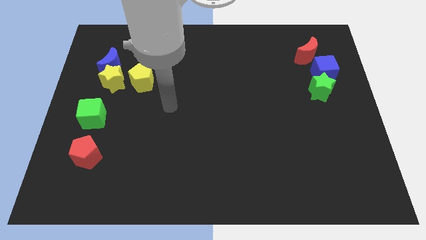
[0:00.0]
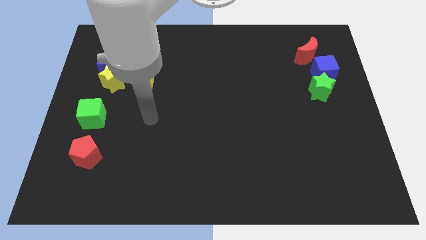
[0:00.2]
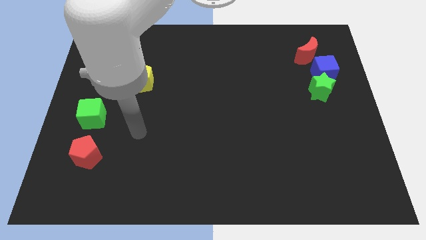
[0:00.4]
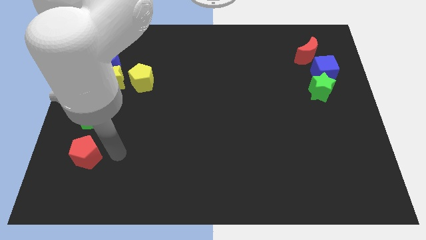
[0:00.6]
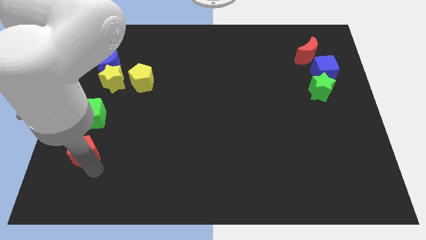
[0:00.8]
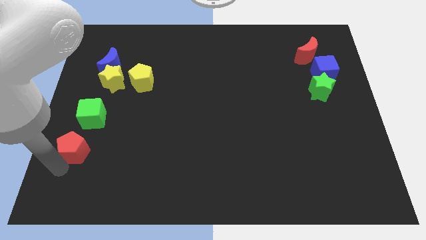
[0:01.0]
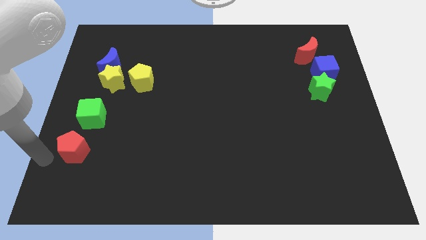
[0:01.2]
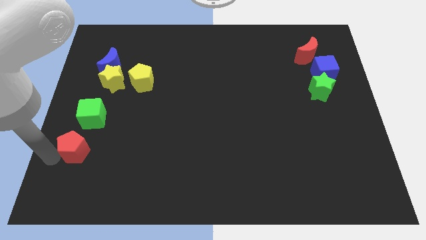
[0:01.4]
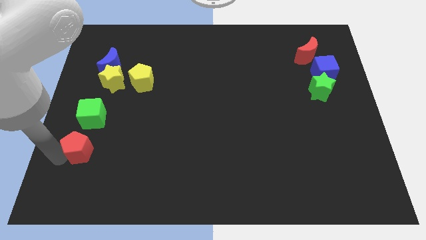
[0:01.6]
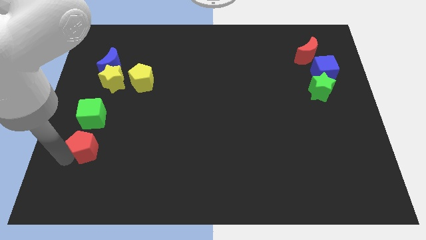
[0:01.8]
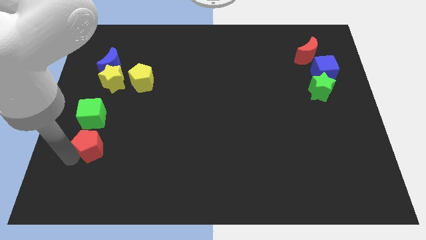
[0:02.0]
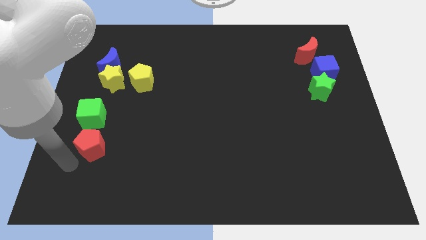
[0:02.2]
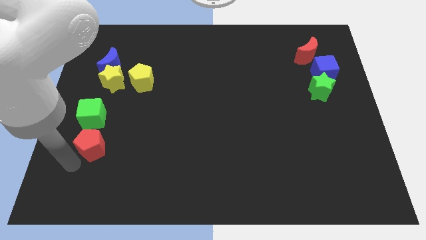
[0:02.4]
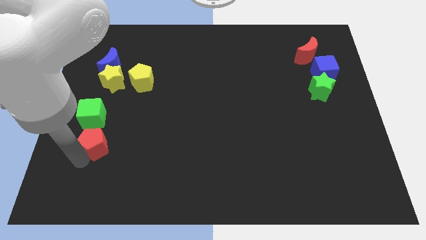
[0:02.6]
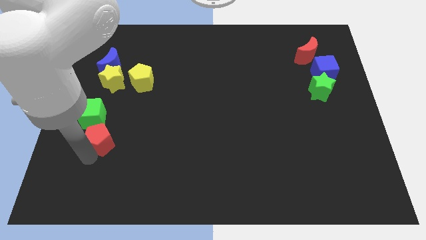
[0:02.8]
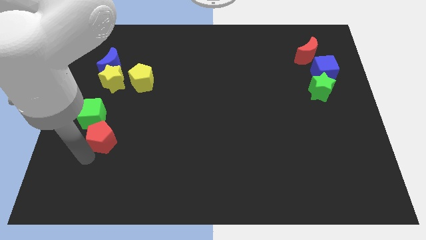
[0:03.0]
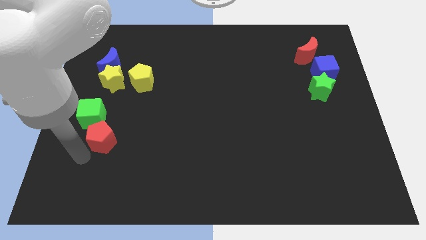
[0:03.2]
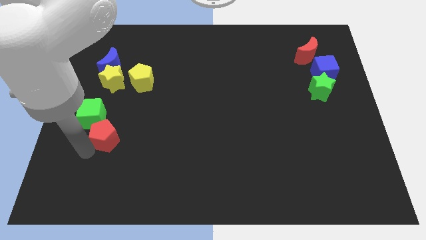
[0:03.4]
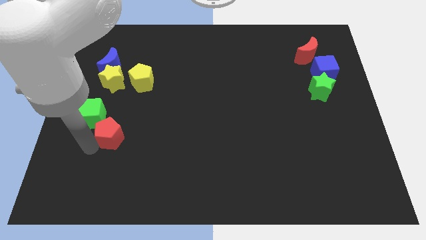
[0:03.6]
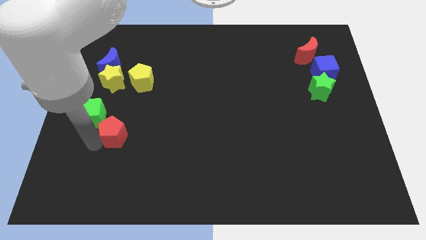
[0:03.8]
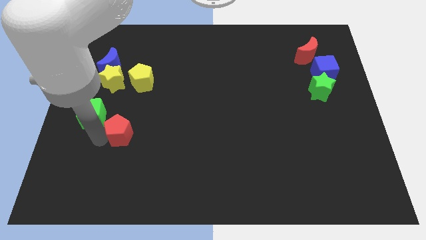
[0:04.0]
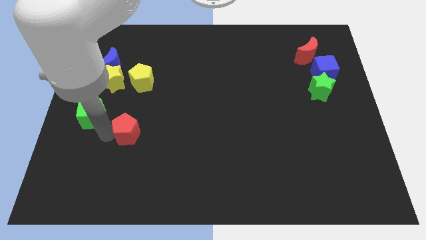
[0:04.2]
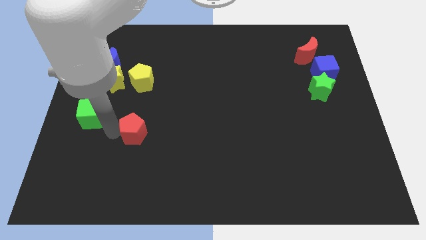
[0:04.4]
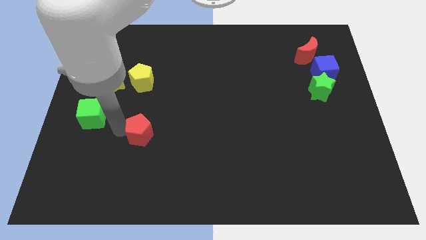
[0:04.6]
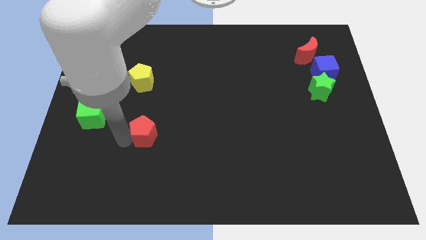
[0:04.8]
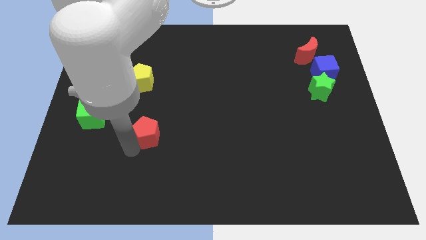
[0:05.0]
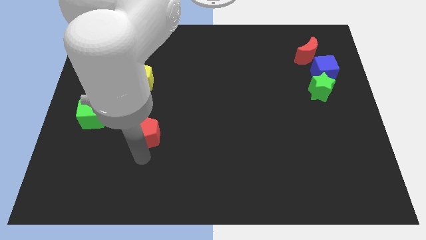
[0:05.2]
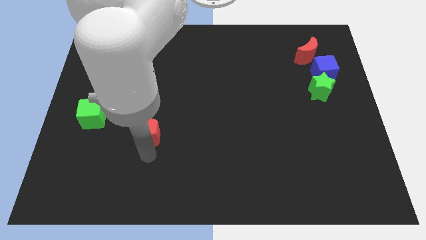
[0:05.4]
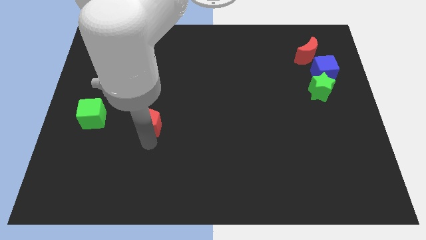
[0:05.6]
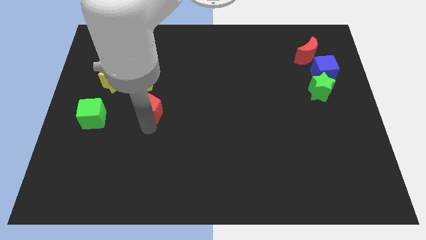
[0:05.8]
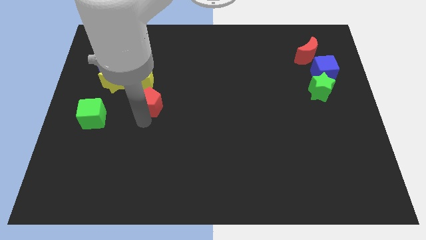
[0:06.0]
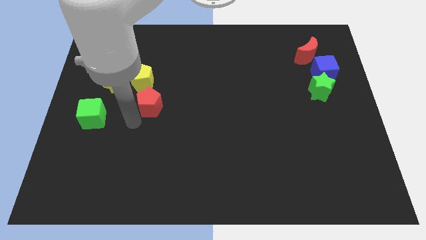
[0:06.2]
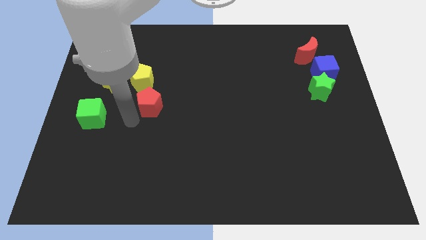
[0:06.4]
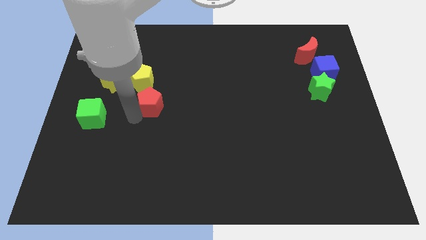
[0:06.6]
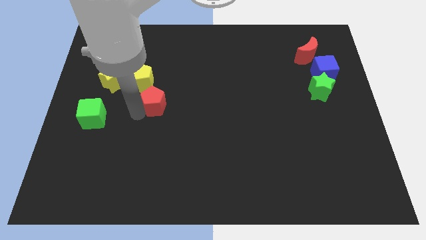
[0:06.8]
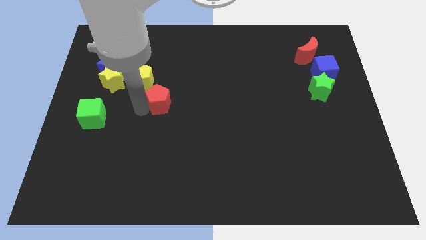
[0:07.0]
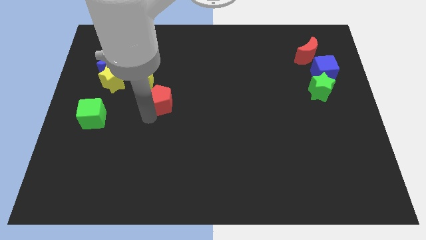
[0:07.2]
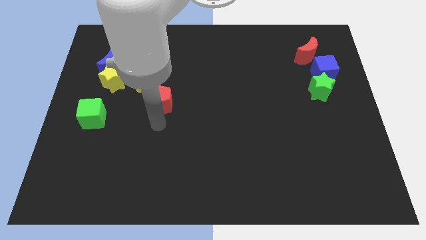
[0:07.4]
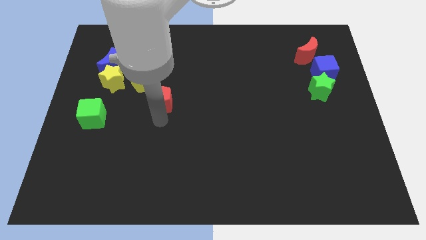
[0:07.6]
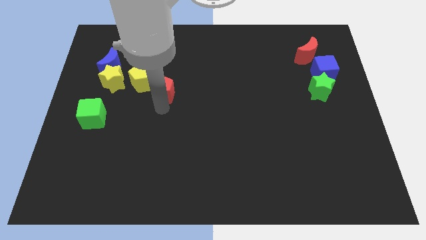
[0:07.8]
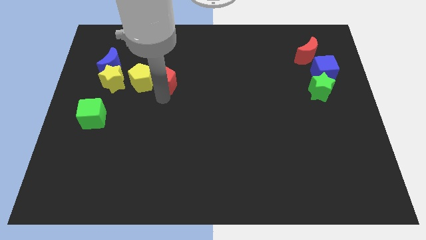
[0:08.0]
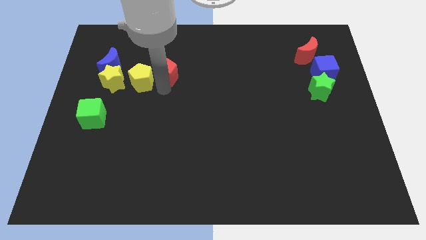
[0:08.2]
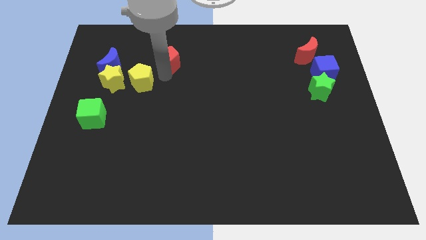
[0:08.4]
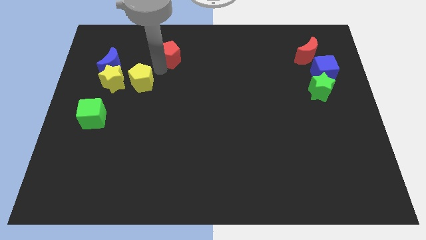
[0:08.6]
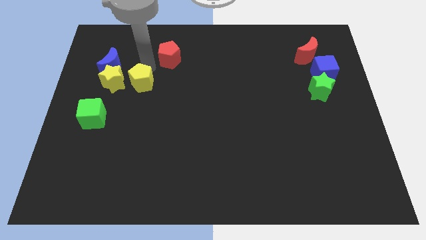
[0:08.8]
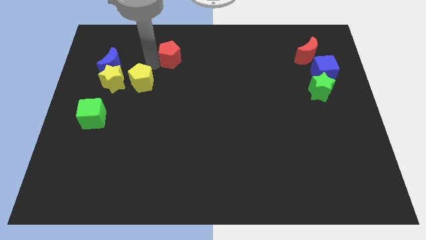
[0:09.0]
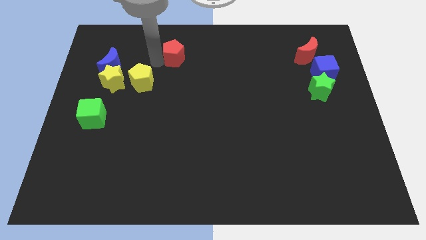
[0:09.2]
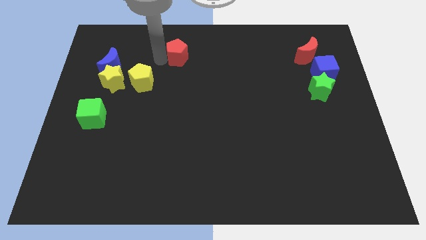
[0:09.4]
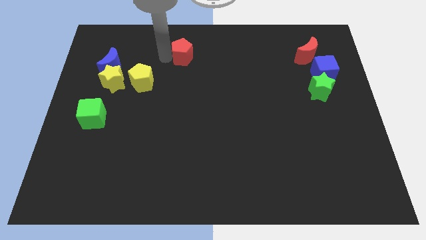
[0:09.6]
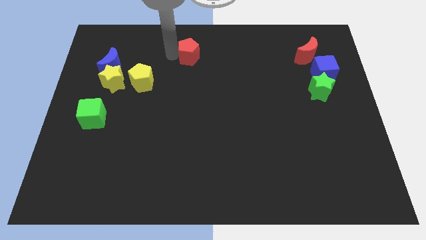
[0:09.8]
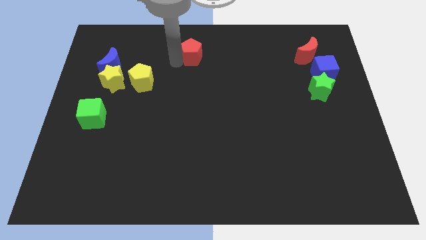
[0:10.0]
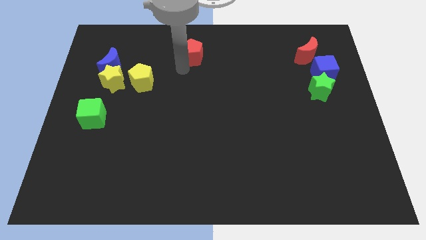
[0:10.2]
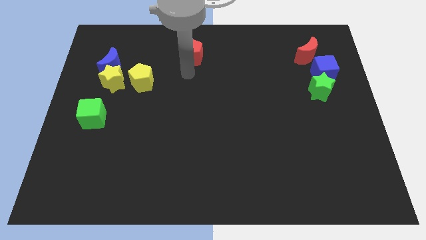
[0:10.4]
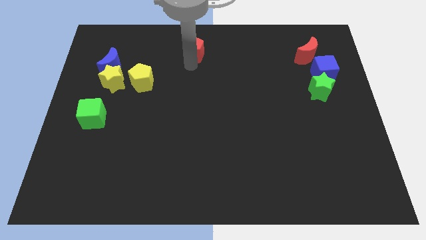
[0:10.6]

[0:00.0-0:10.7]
move the red pentagon to the towards your base

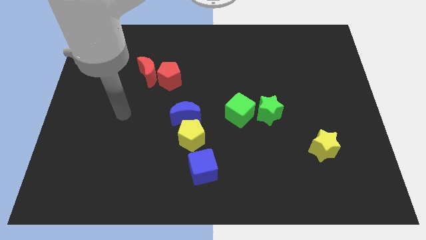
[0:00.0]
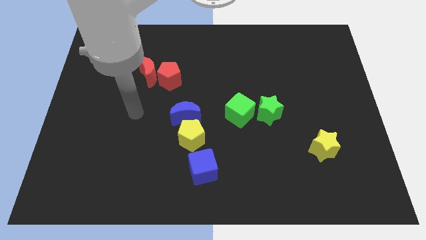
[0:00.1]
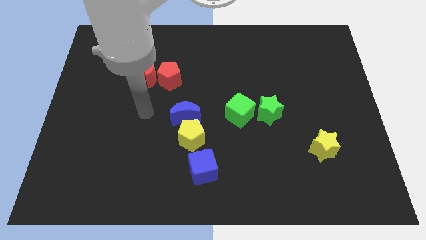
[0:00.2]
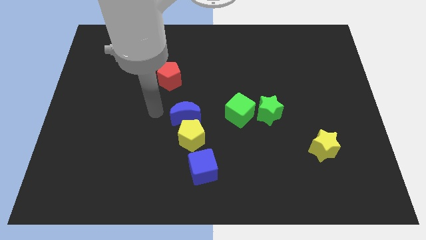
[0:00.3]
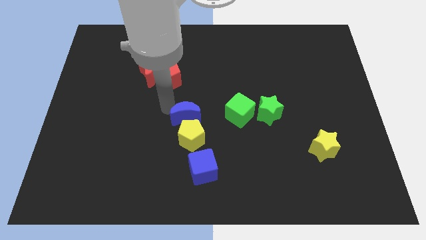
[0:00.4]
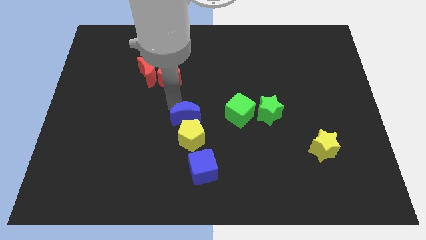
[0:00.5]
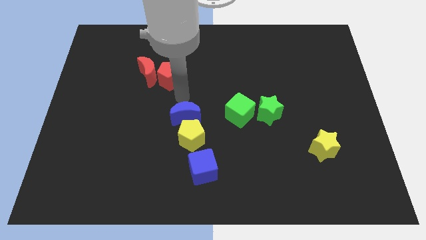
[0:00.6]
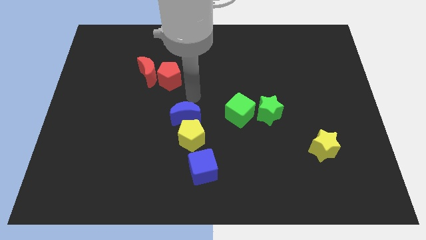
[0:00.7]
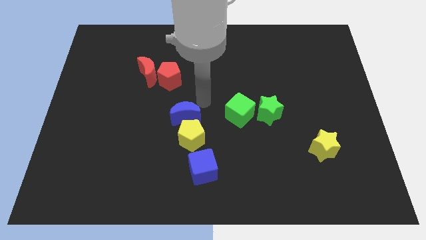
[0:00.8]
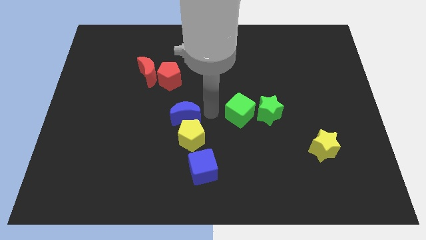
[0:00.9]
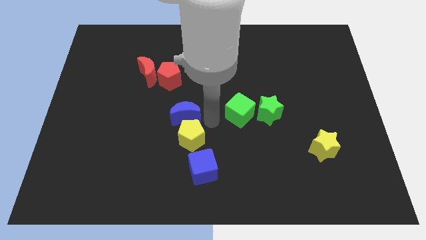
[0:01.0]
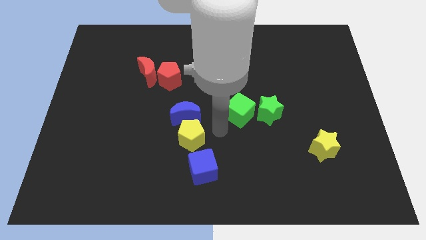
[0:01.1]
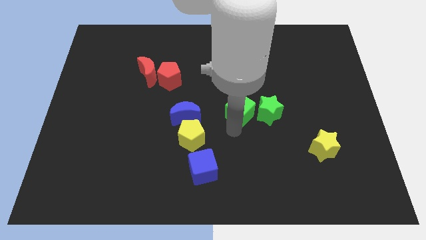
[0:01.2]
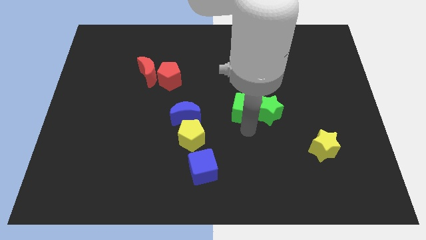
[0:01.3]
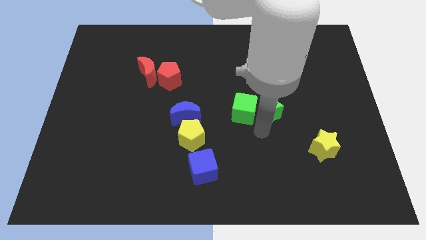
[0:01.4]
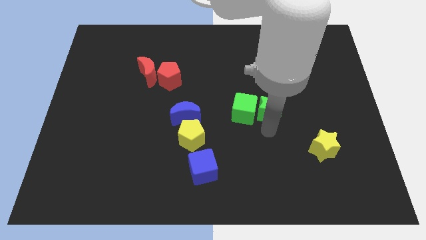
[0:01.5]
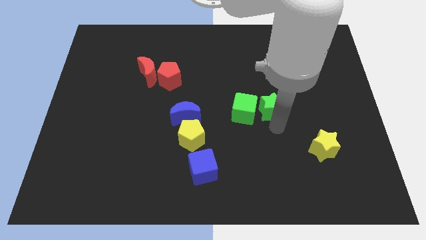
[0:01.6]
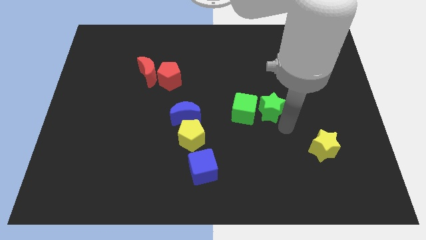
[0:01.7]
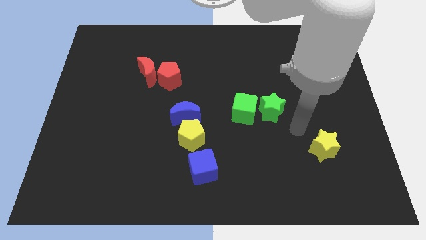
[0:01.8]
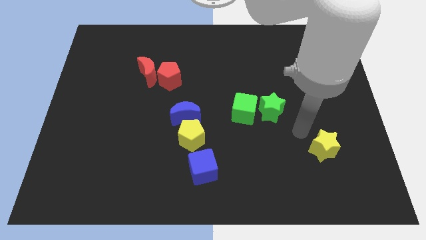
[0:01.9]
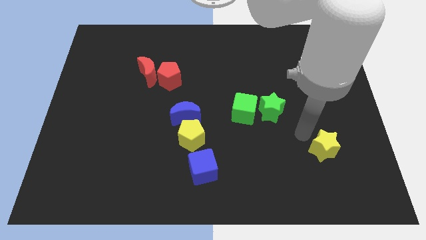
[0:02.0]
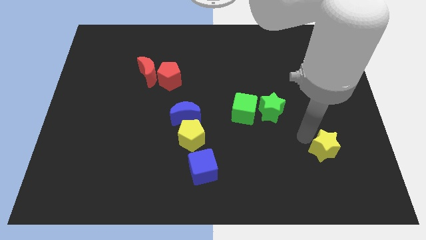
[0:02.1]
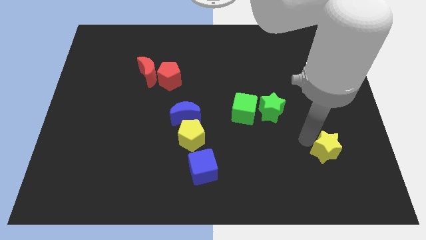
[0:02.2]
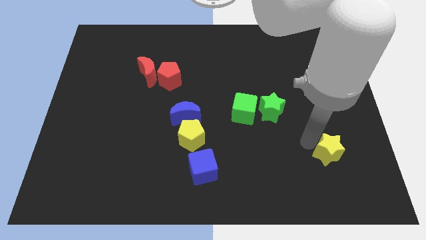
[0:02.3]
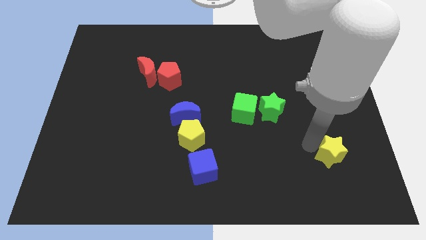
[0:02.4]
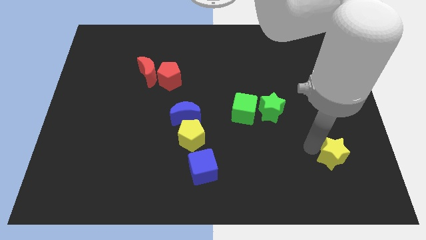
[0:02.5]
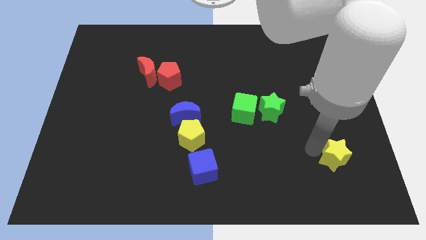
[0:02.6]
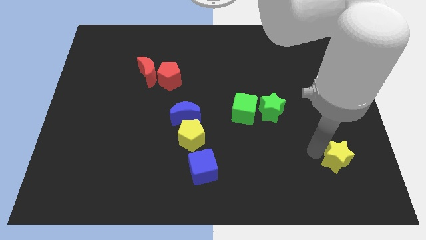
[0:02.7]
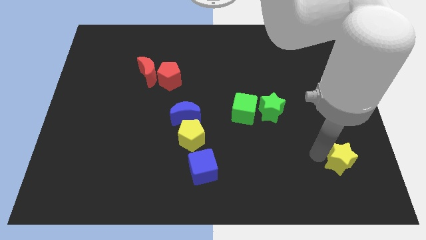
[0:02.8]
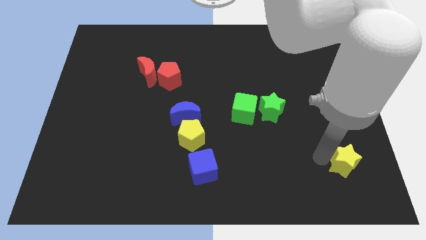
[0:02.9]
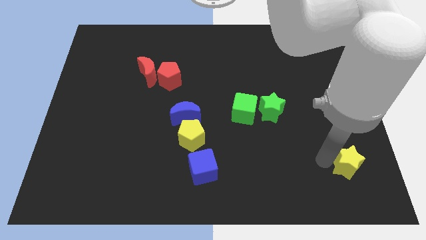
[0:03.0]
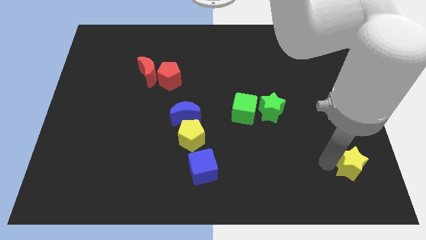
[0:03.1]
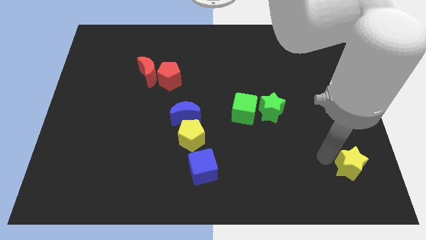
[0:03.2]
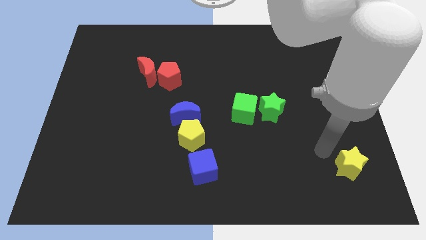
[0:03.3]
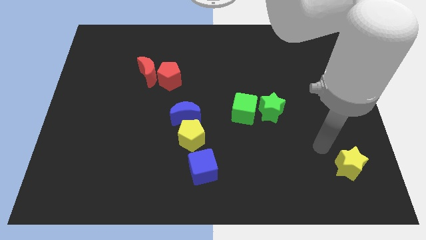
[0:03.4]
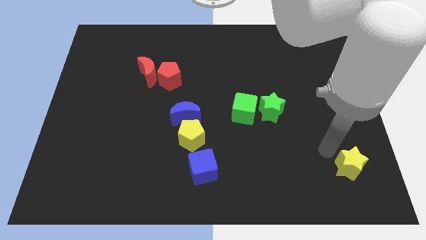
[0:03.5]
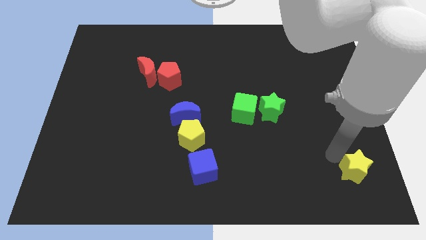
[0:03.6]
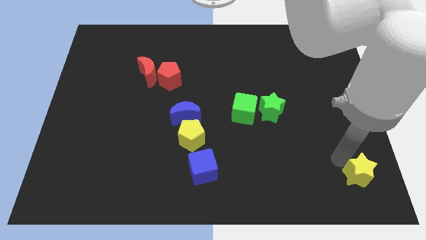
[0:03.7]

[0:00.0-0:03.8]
push the yellow star to the bottom right corner
